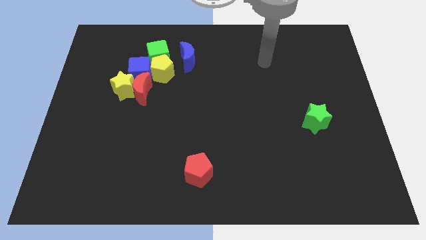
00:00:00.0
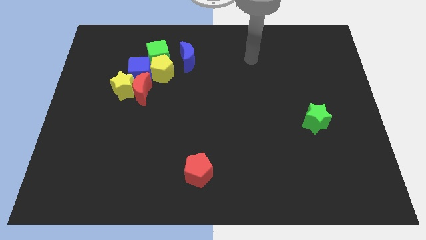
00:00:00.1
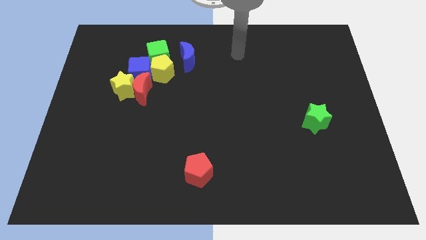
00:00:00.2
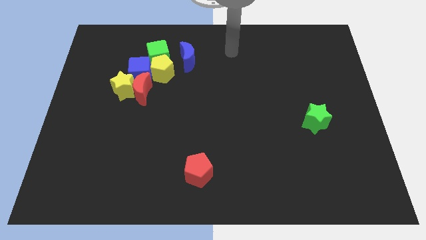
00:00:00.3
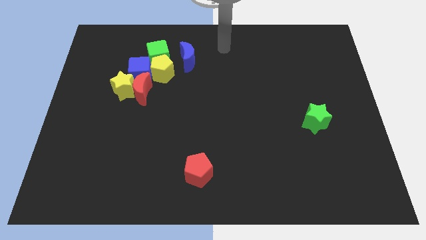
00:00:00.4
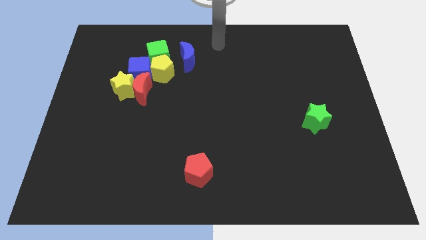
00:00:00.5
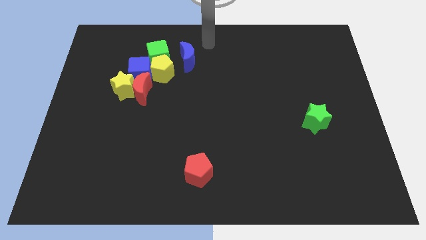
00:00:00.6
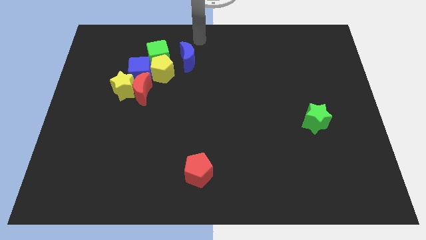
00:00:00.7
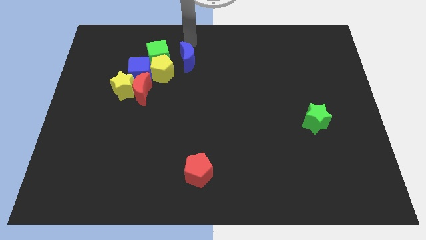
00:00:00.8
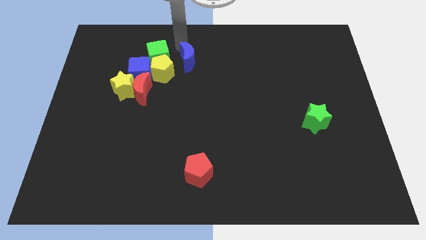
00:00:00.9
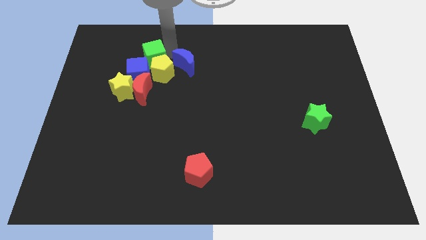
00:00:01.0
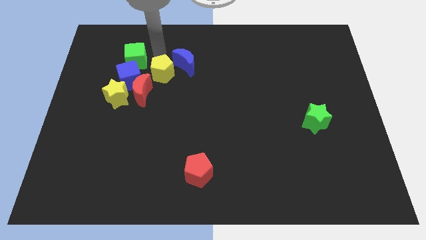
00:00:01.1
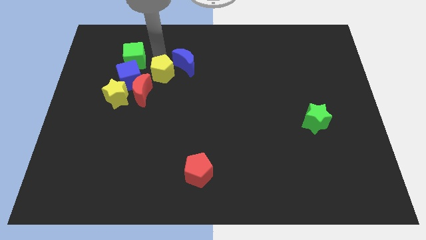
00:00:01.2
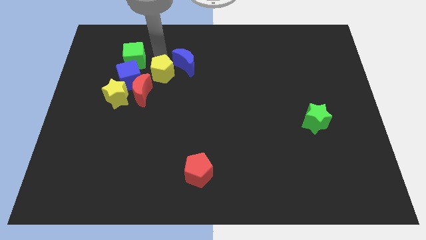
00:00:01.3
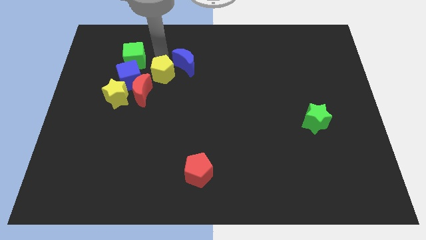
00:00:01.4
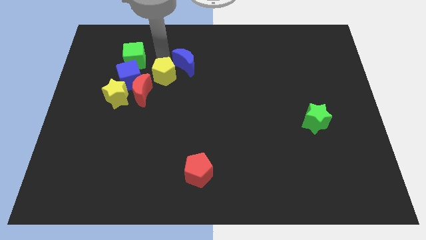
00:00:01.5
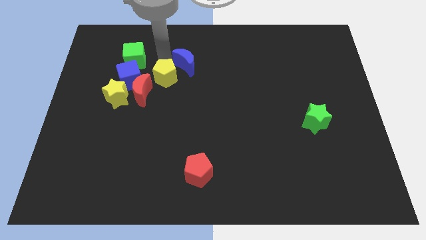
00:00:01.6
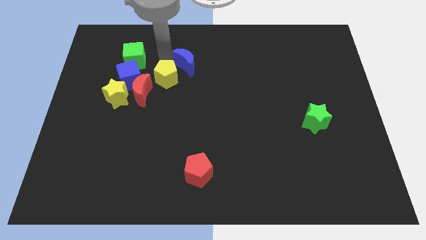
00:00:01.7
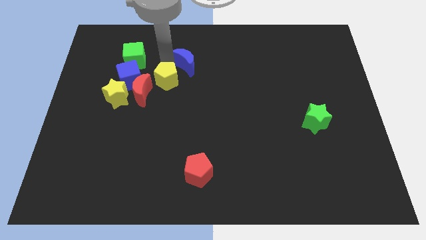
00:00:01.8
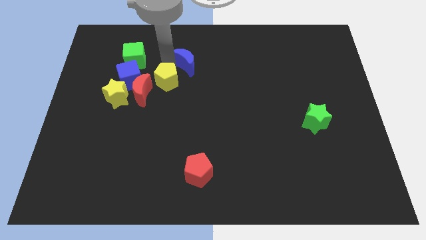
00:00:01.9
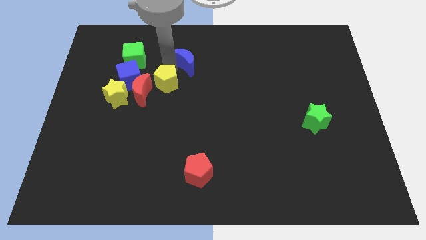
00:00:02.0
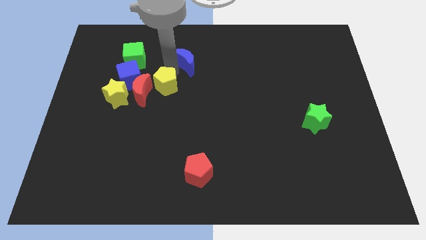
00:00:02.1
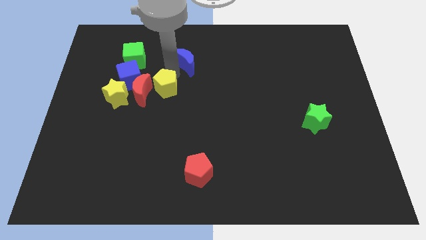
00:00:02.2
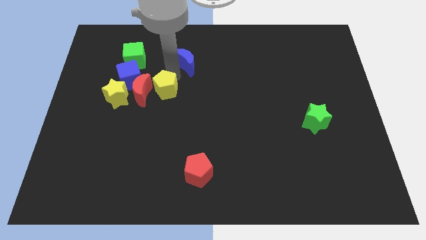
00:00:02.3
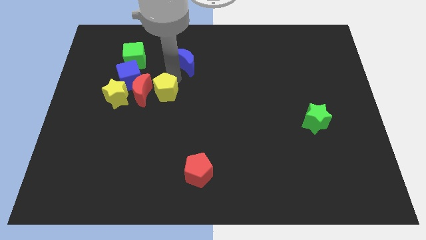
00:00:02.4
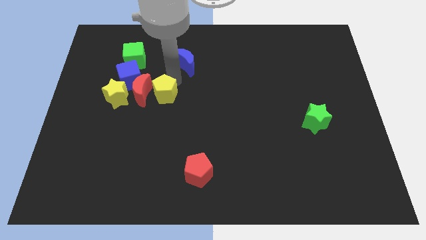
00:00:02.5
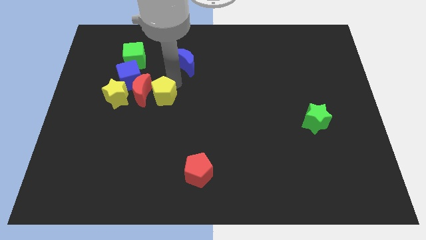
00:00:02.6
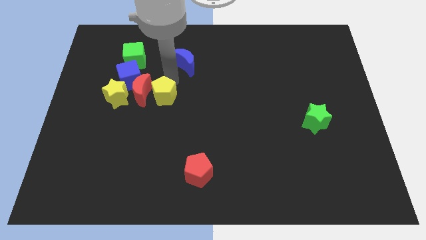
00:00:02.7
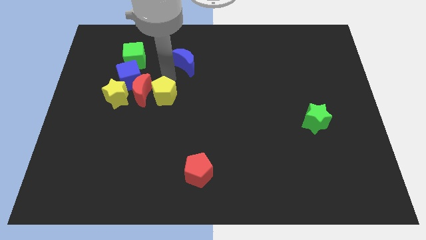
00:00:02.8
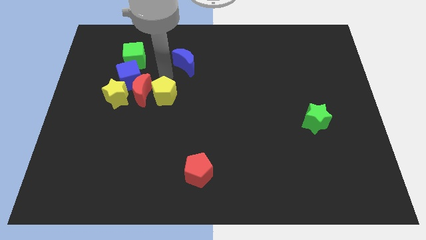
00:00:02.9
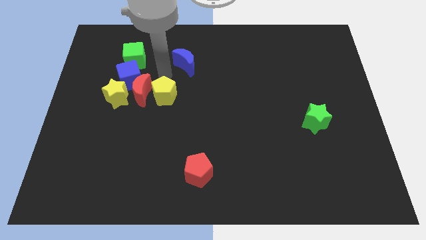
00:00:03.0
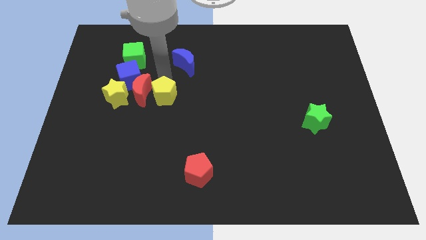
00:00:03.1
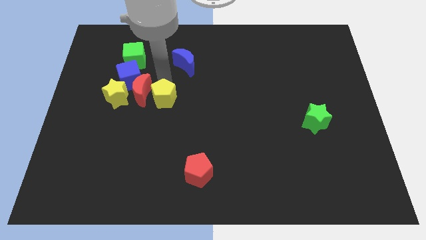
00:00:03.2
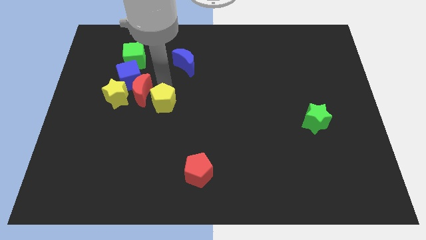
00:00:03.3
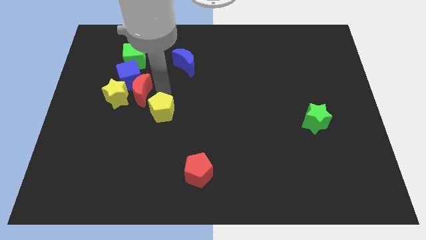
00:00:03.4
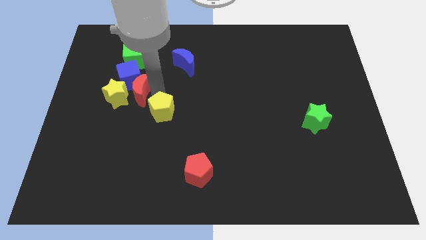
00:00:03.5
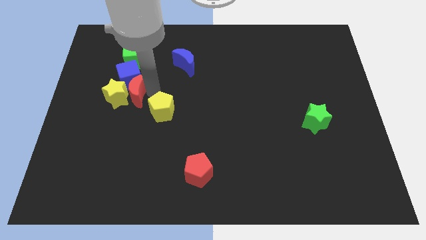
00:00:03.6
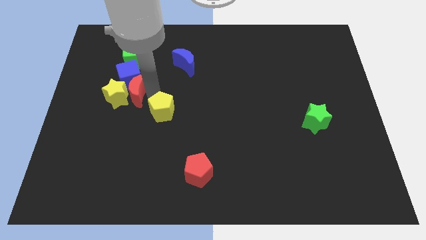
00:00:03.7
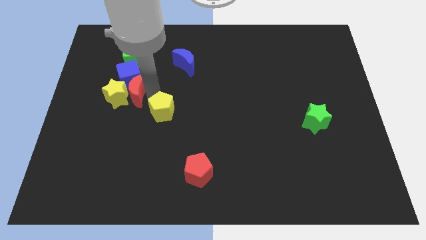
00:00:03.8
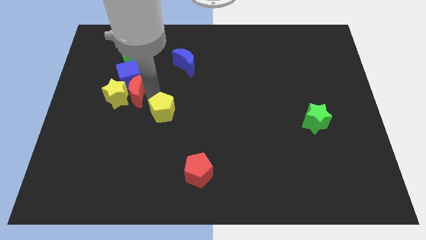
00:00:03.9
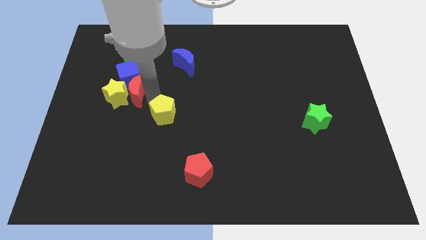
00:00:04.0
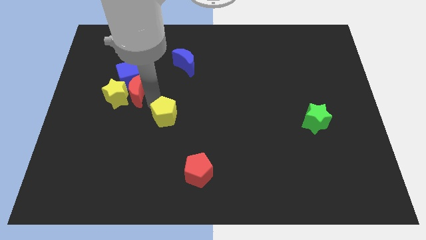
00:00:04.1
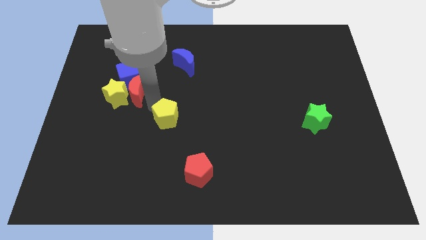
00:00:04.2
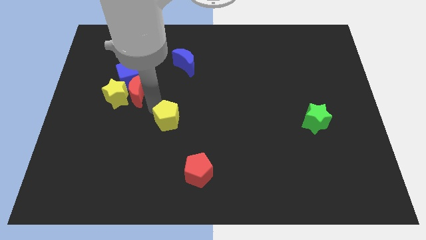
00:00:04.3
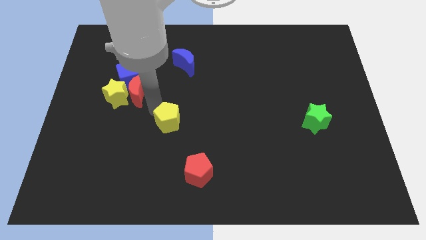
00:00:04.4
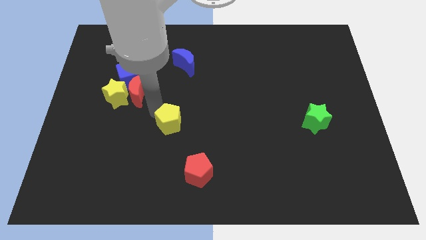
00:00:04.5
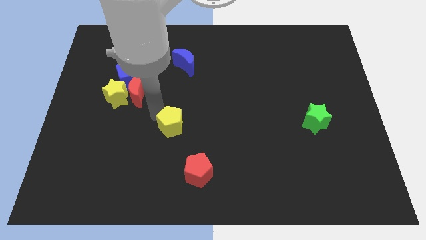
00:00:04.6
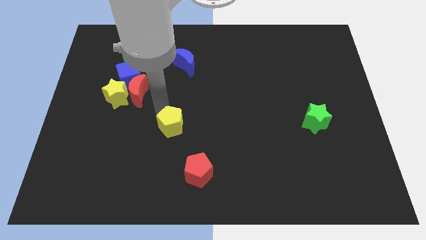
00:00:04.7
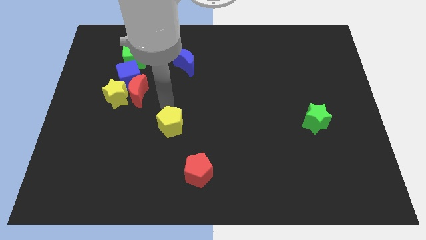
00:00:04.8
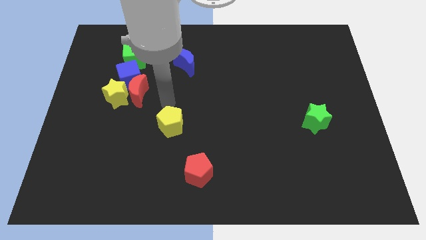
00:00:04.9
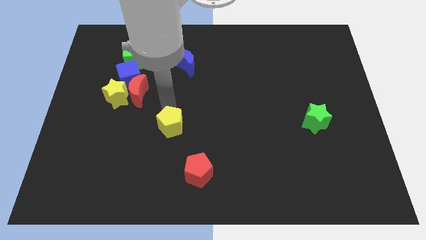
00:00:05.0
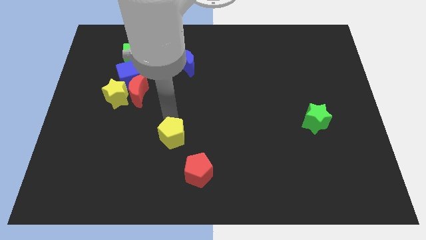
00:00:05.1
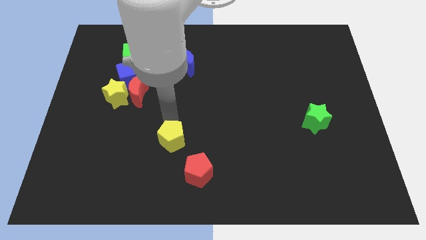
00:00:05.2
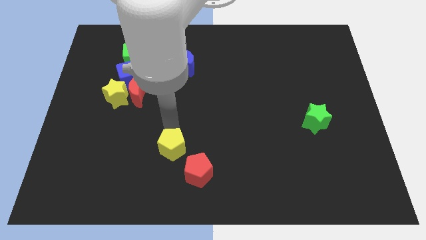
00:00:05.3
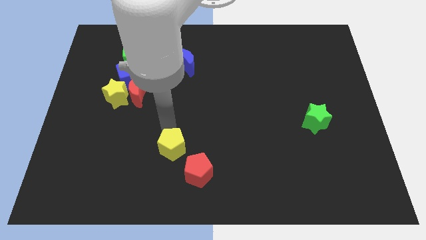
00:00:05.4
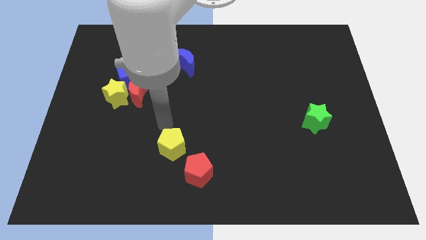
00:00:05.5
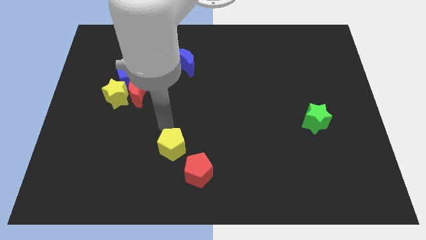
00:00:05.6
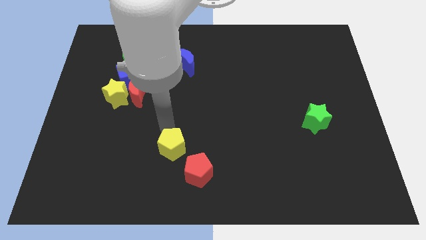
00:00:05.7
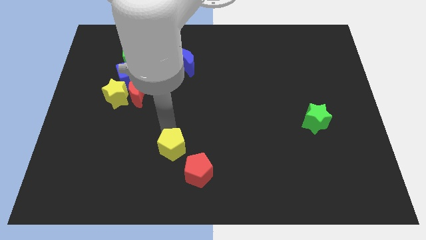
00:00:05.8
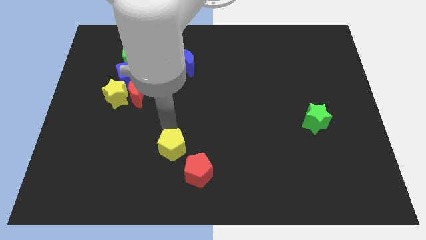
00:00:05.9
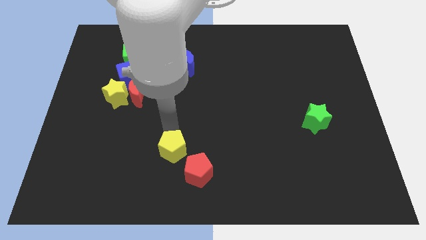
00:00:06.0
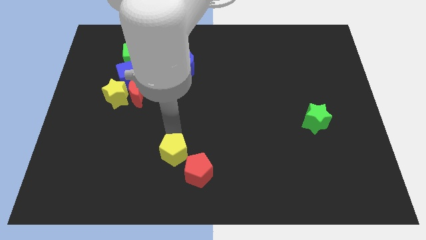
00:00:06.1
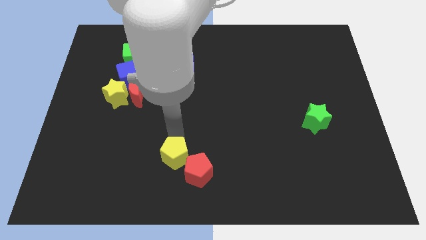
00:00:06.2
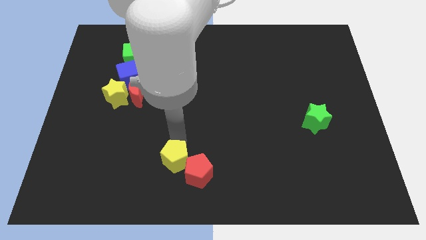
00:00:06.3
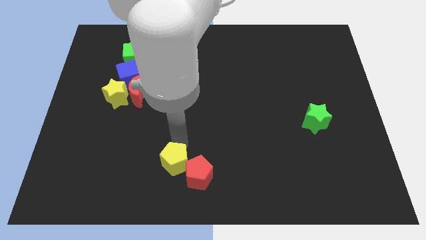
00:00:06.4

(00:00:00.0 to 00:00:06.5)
push the yellow pentagon to the bottom

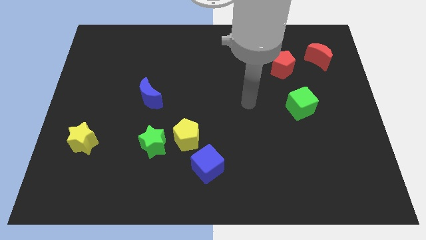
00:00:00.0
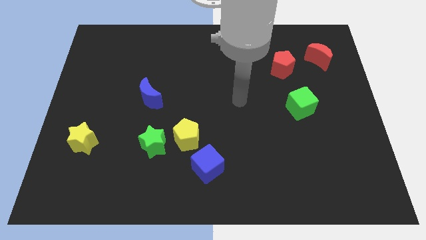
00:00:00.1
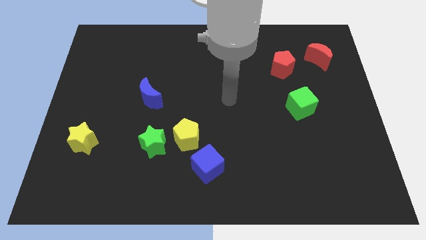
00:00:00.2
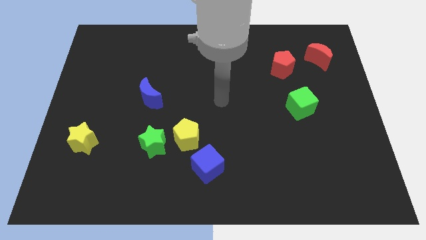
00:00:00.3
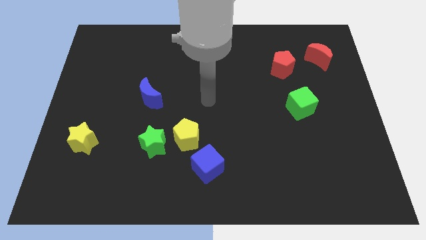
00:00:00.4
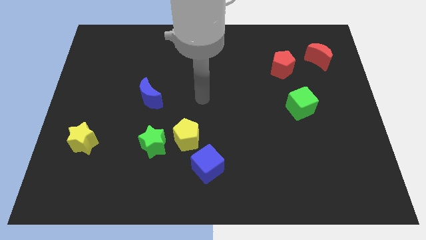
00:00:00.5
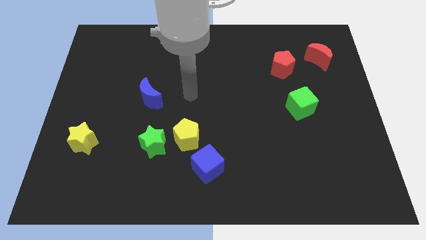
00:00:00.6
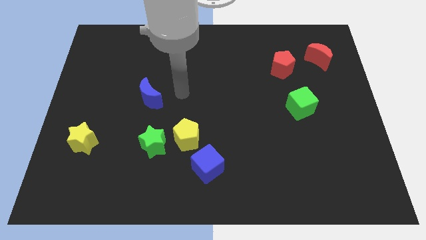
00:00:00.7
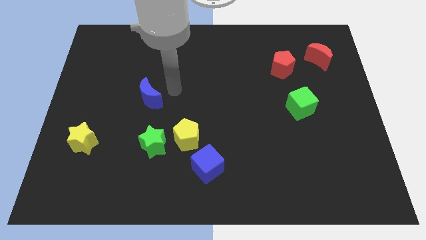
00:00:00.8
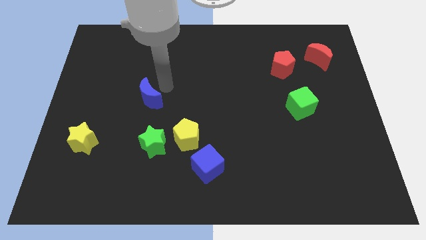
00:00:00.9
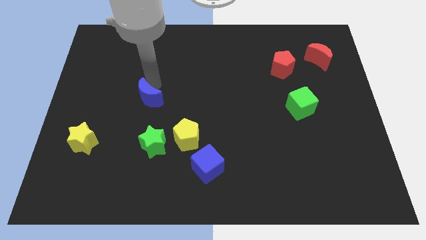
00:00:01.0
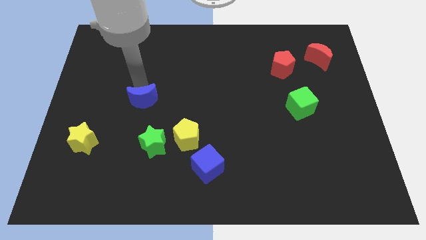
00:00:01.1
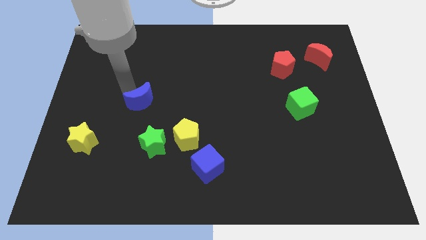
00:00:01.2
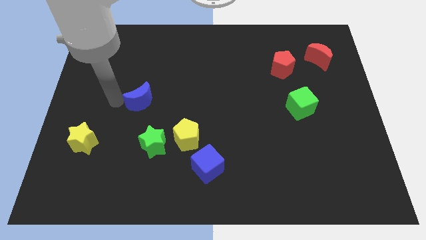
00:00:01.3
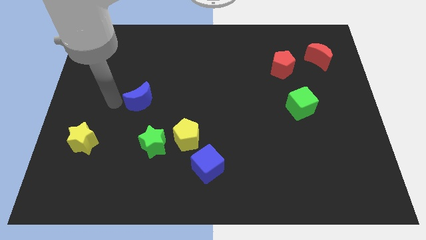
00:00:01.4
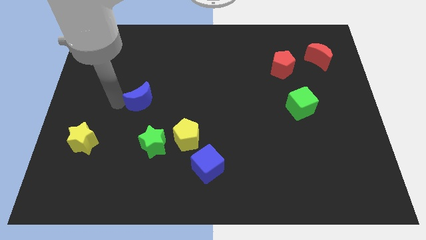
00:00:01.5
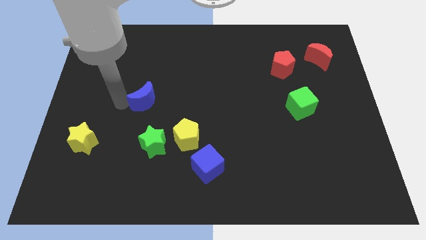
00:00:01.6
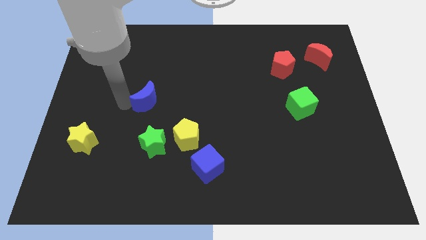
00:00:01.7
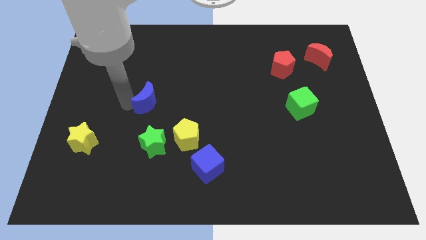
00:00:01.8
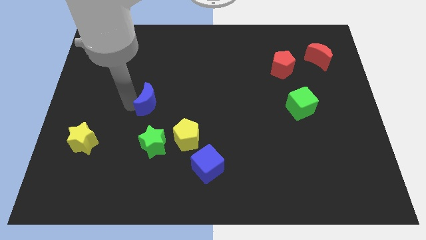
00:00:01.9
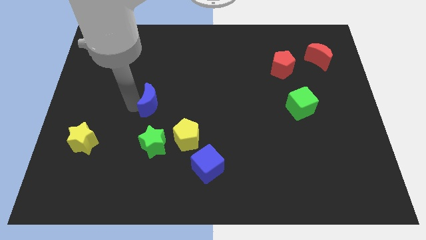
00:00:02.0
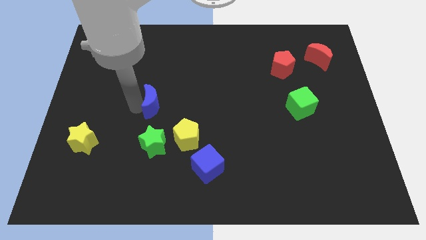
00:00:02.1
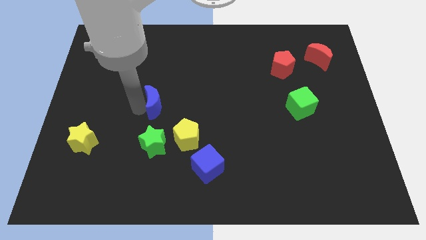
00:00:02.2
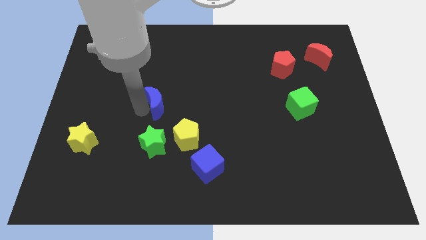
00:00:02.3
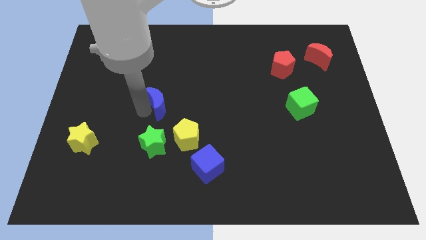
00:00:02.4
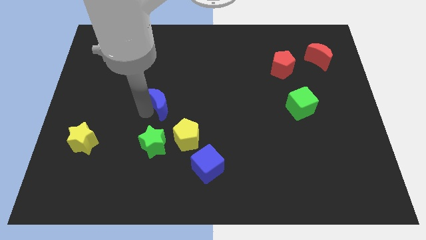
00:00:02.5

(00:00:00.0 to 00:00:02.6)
push the blue moon to the middle of the board
